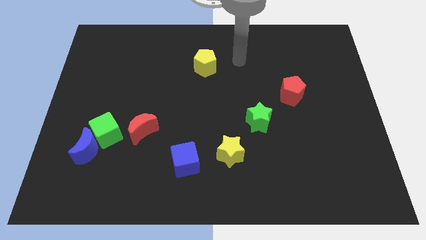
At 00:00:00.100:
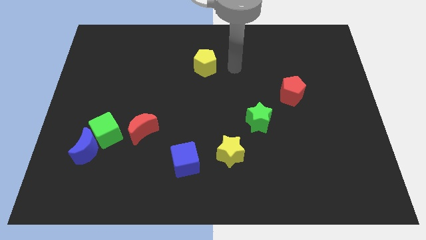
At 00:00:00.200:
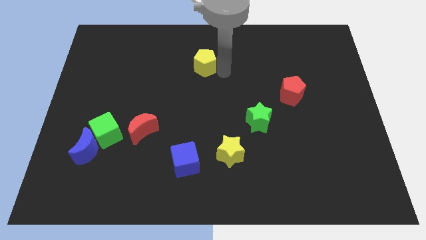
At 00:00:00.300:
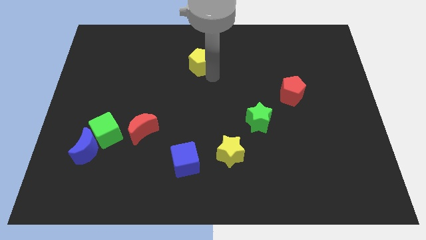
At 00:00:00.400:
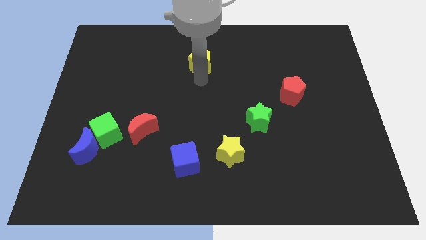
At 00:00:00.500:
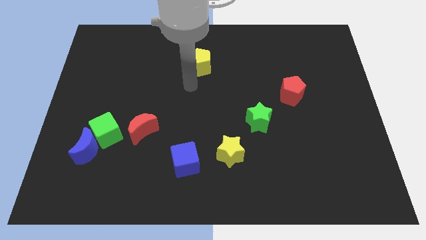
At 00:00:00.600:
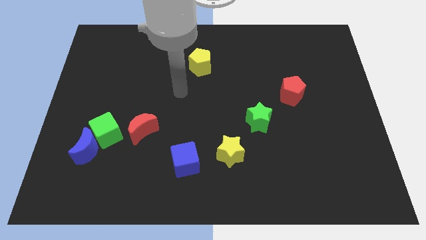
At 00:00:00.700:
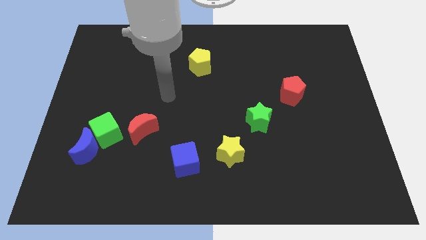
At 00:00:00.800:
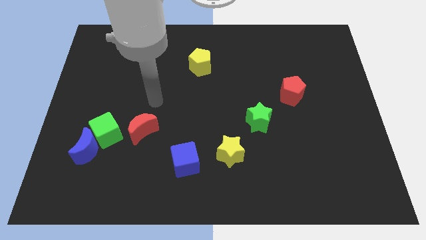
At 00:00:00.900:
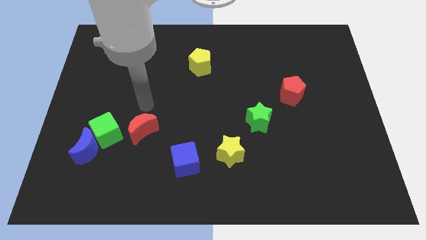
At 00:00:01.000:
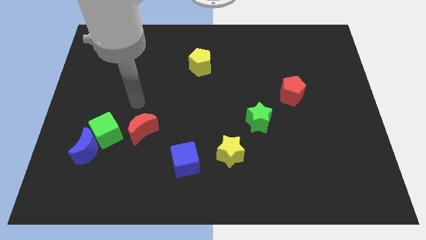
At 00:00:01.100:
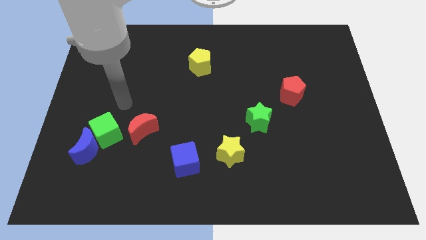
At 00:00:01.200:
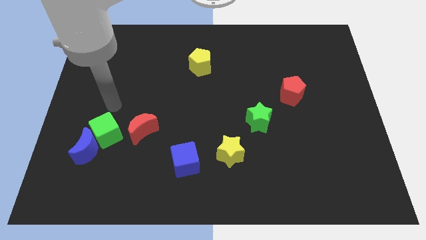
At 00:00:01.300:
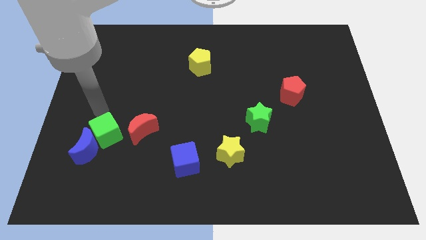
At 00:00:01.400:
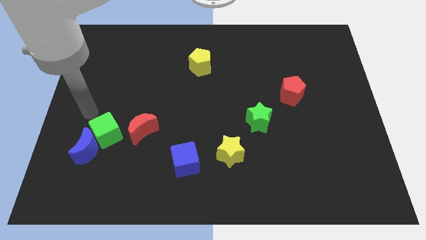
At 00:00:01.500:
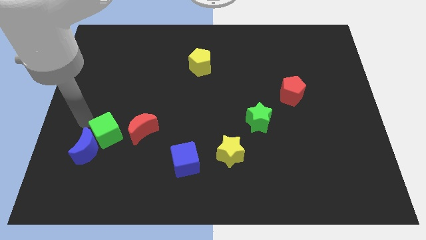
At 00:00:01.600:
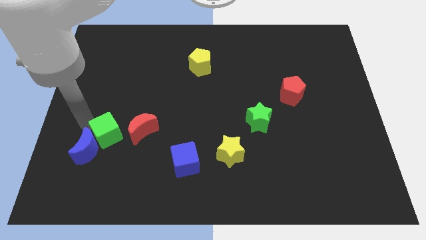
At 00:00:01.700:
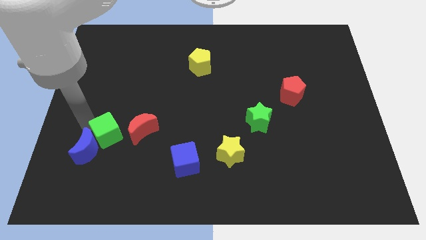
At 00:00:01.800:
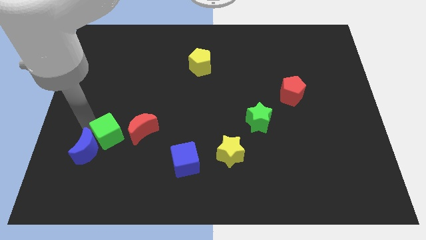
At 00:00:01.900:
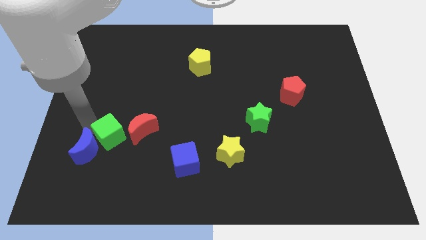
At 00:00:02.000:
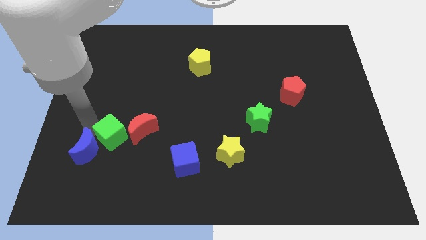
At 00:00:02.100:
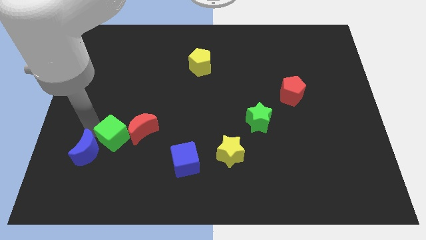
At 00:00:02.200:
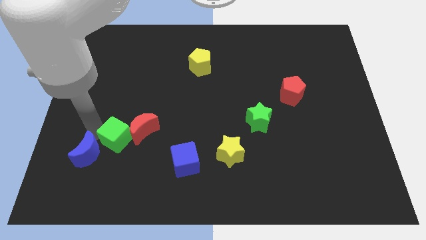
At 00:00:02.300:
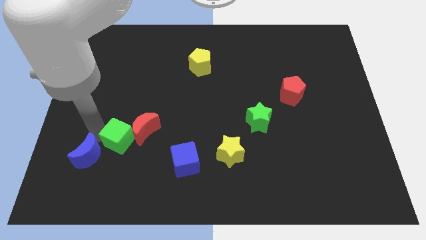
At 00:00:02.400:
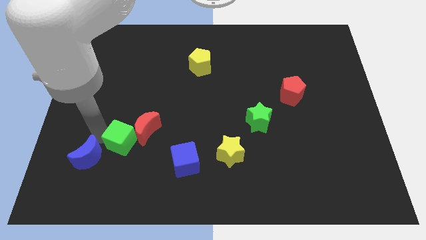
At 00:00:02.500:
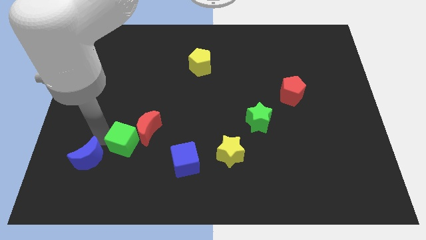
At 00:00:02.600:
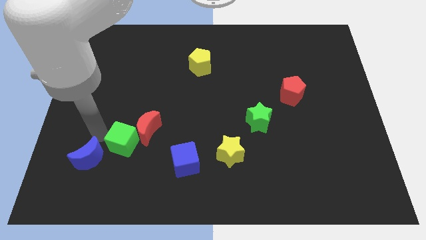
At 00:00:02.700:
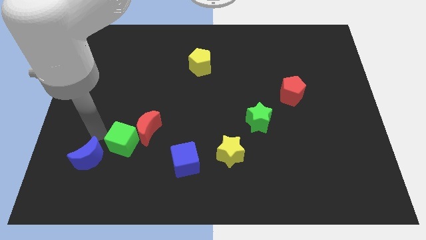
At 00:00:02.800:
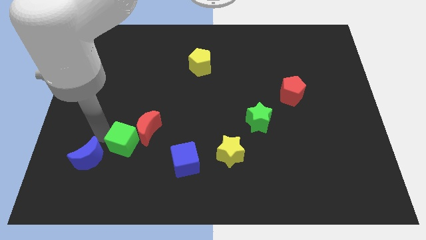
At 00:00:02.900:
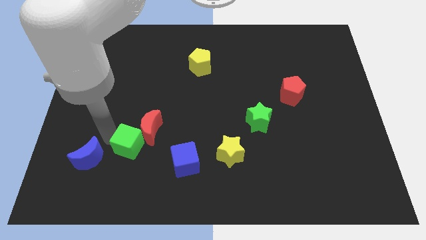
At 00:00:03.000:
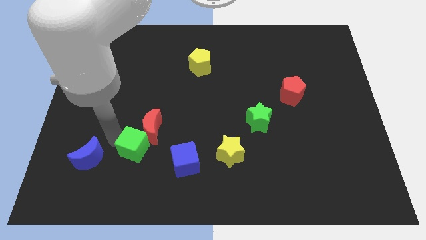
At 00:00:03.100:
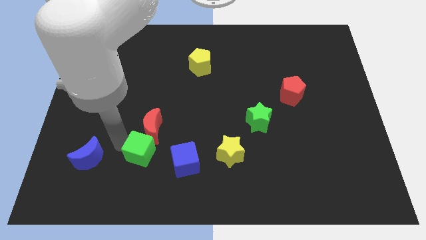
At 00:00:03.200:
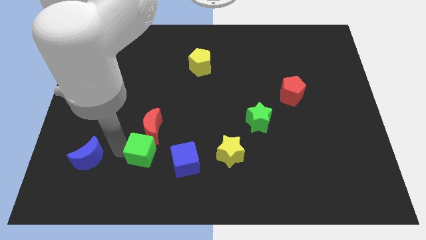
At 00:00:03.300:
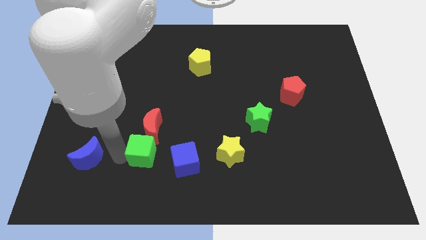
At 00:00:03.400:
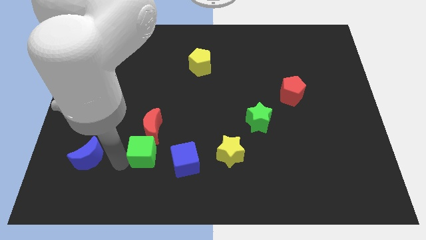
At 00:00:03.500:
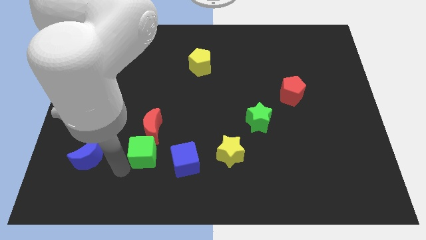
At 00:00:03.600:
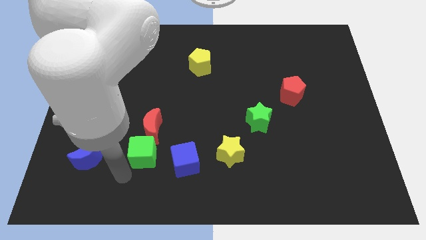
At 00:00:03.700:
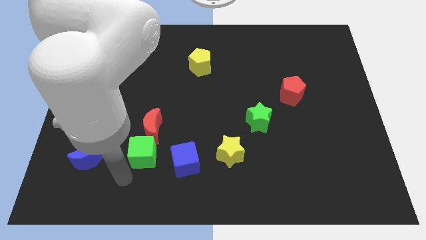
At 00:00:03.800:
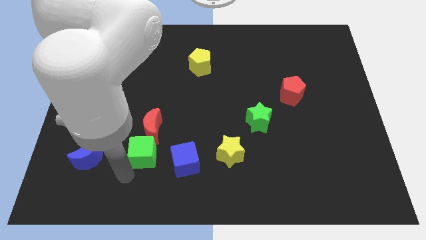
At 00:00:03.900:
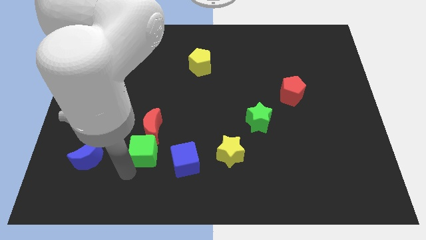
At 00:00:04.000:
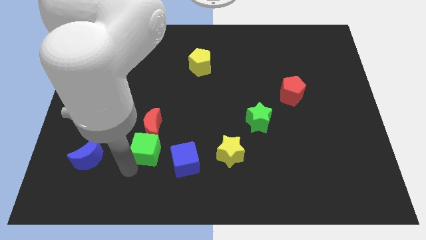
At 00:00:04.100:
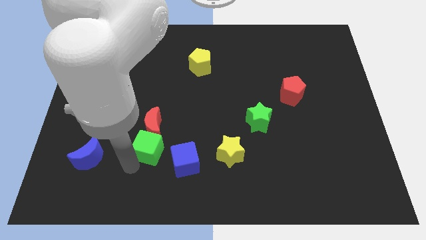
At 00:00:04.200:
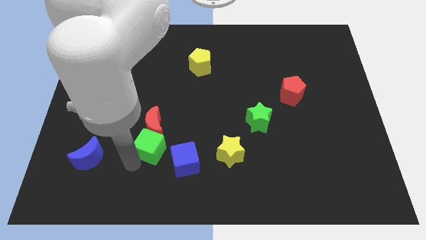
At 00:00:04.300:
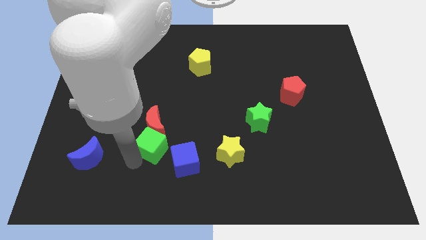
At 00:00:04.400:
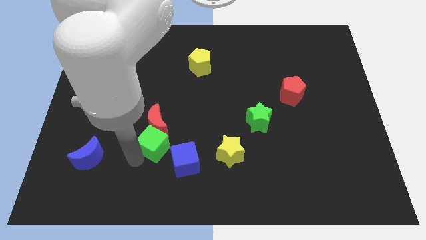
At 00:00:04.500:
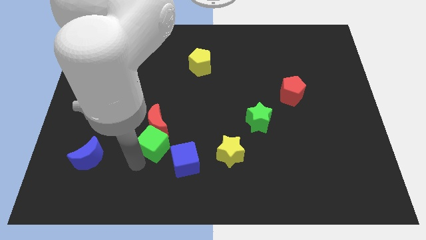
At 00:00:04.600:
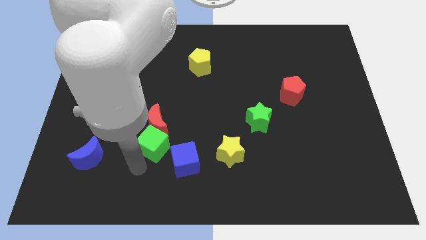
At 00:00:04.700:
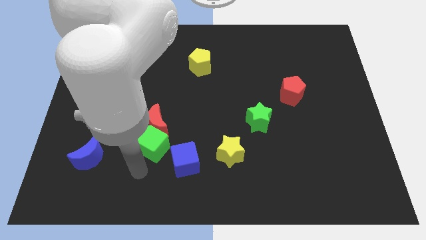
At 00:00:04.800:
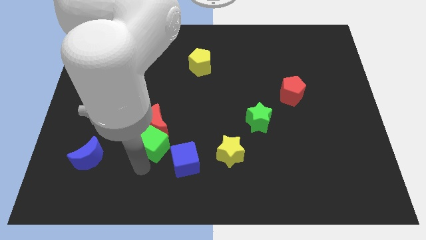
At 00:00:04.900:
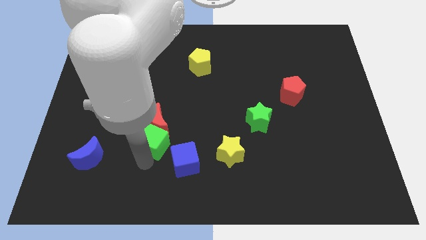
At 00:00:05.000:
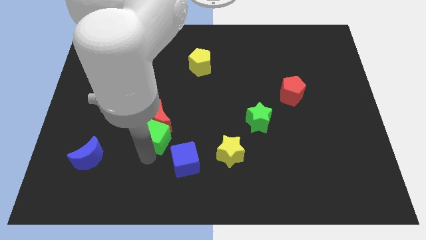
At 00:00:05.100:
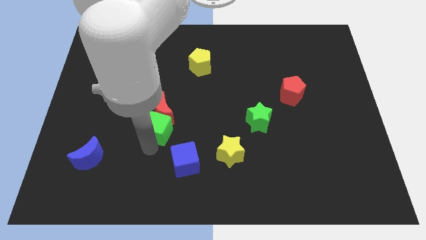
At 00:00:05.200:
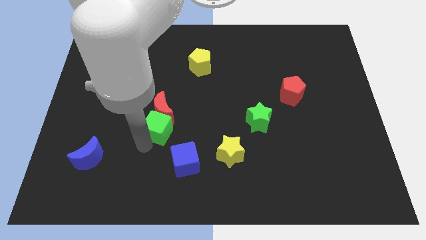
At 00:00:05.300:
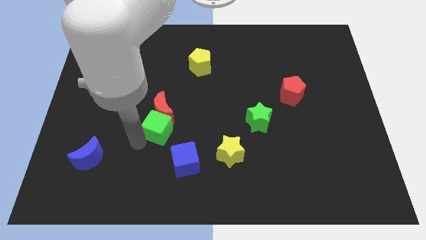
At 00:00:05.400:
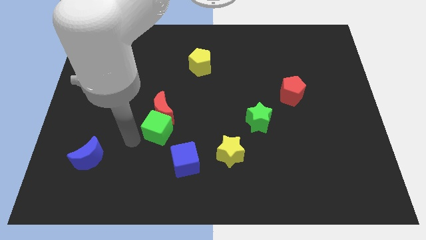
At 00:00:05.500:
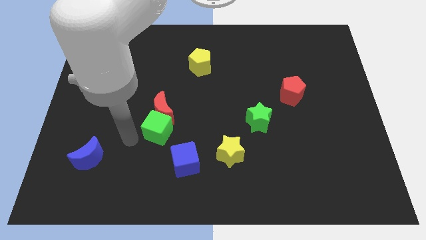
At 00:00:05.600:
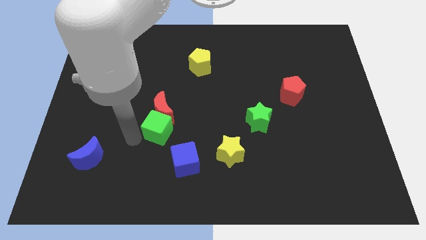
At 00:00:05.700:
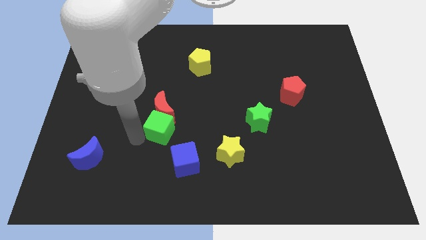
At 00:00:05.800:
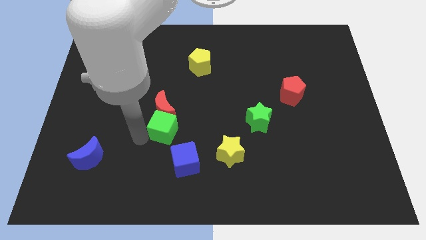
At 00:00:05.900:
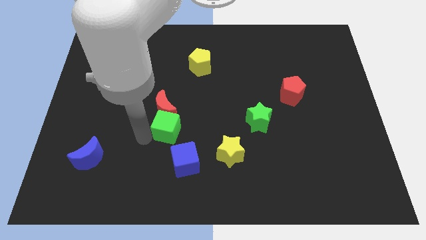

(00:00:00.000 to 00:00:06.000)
put the green cube to the top side of the blue cube

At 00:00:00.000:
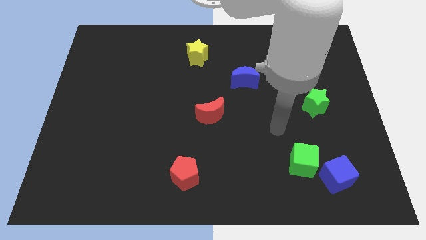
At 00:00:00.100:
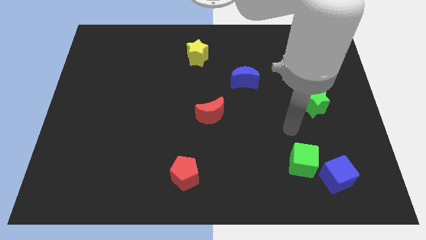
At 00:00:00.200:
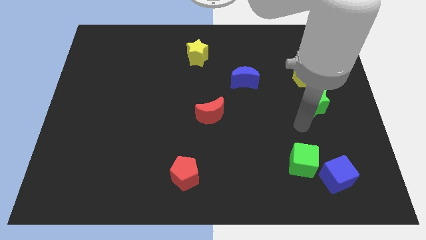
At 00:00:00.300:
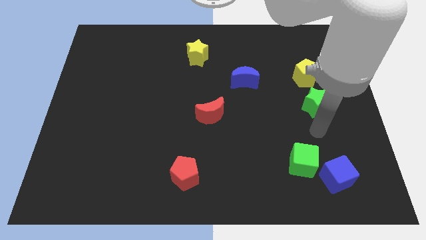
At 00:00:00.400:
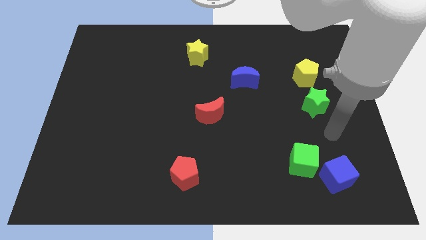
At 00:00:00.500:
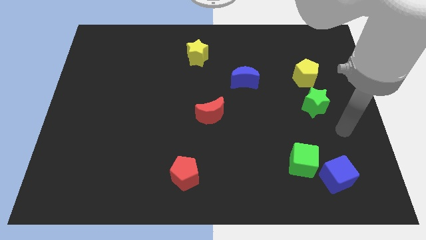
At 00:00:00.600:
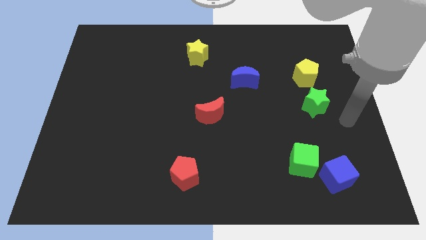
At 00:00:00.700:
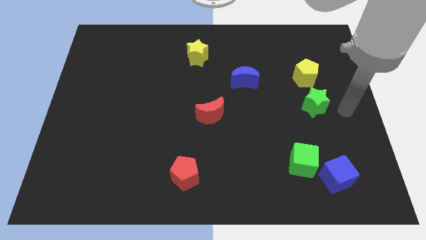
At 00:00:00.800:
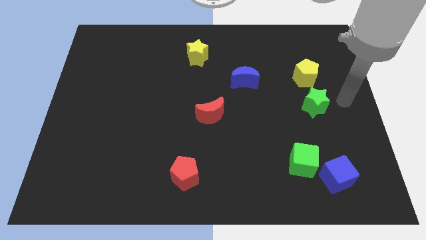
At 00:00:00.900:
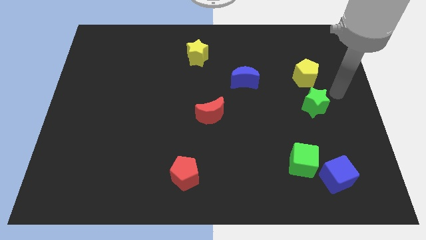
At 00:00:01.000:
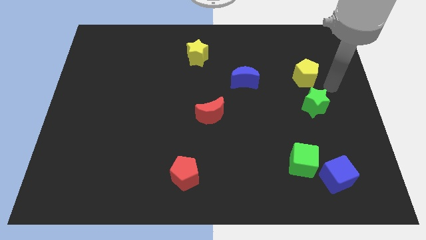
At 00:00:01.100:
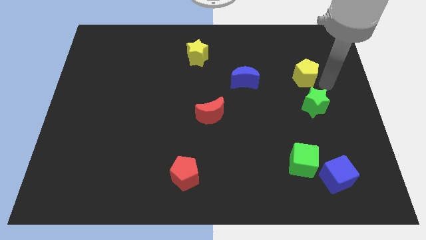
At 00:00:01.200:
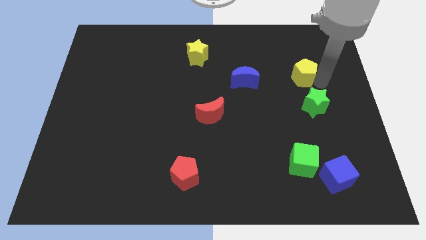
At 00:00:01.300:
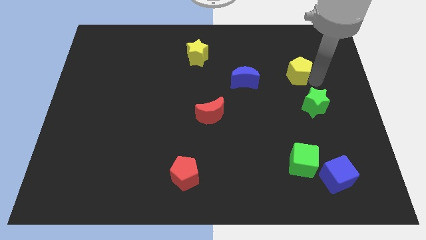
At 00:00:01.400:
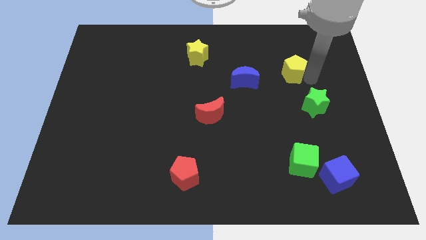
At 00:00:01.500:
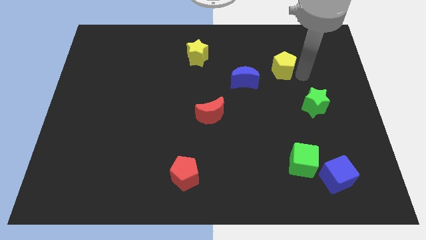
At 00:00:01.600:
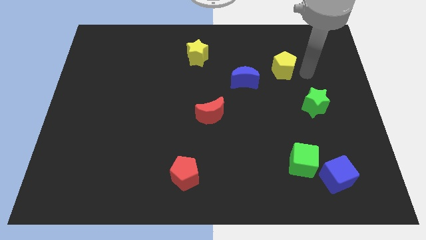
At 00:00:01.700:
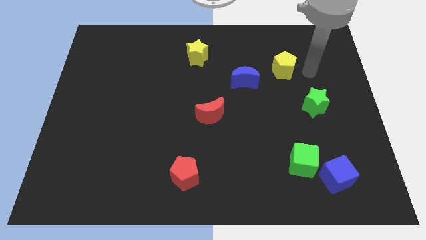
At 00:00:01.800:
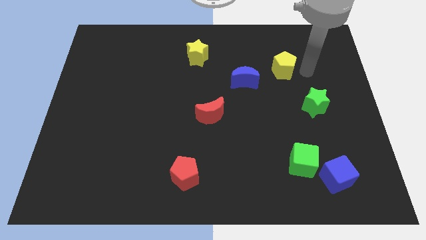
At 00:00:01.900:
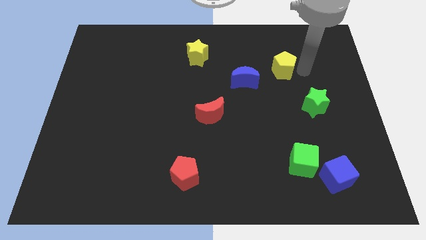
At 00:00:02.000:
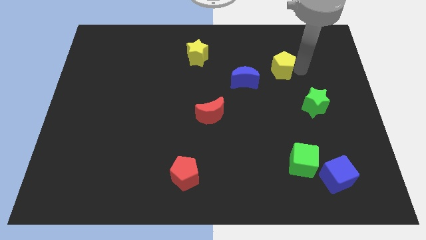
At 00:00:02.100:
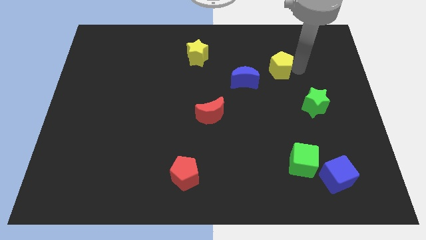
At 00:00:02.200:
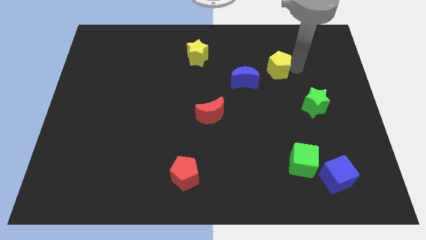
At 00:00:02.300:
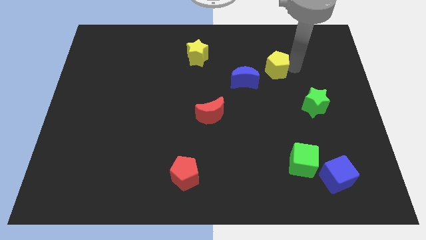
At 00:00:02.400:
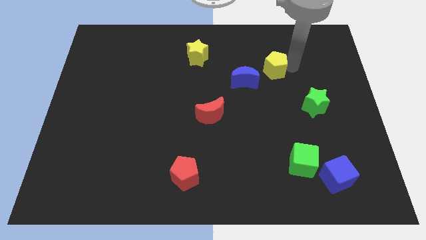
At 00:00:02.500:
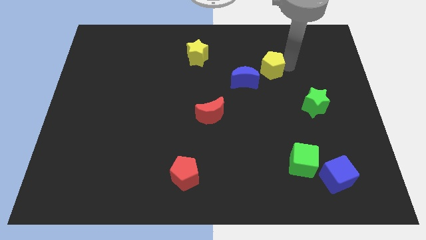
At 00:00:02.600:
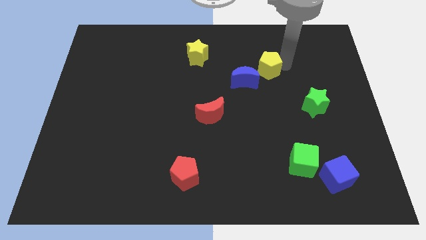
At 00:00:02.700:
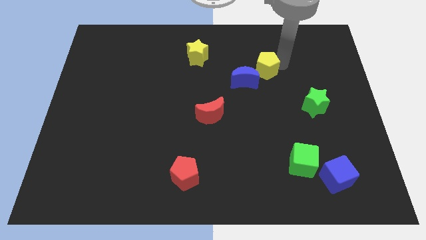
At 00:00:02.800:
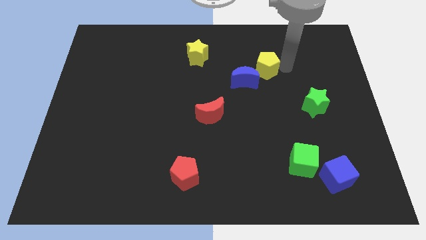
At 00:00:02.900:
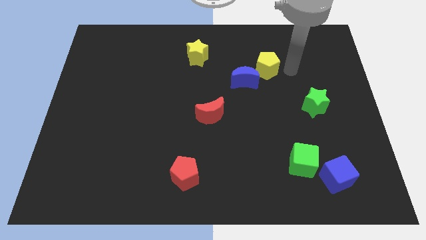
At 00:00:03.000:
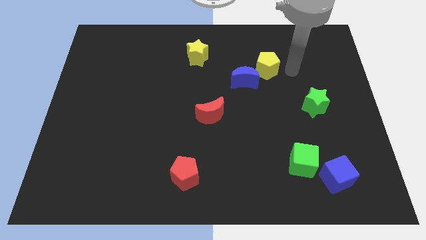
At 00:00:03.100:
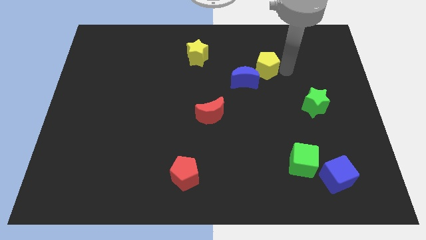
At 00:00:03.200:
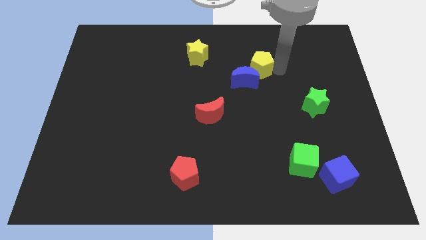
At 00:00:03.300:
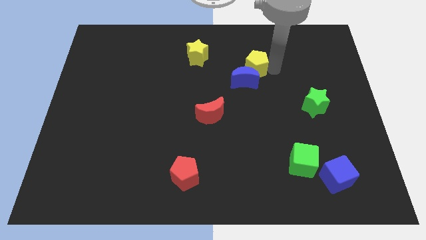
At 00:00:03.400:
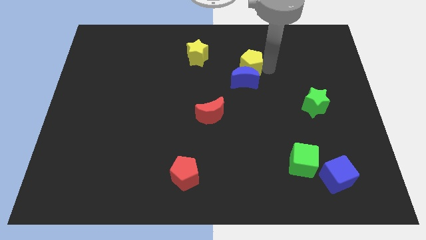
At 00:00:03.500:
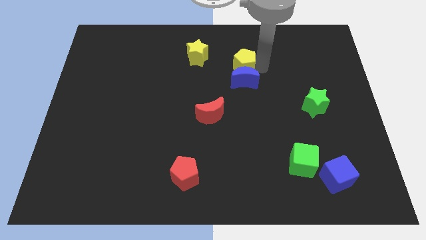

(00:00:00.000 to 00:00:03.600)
push the yellow pentagon to the top left side of the blue moon
